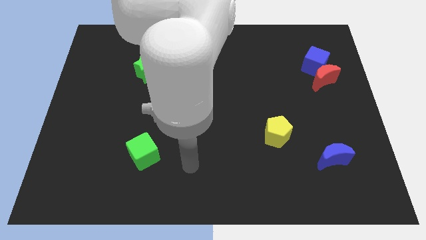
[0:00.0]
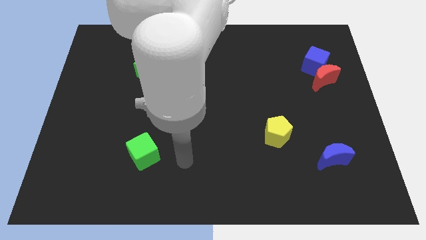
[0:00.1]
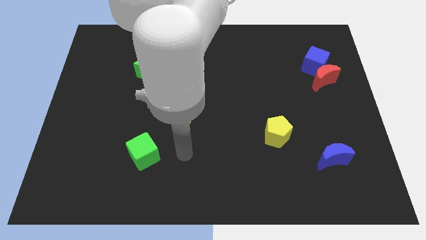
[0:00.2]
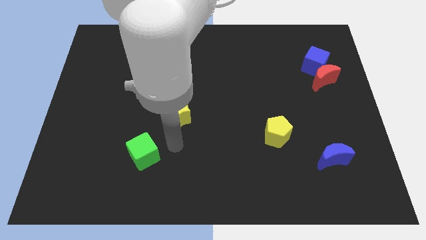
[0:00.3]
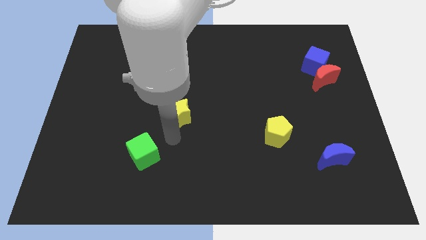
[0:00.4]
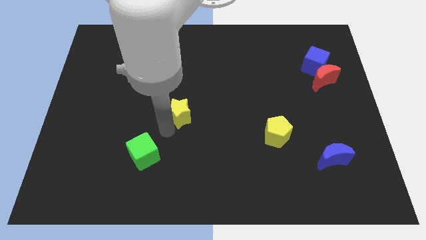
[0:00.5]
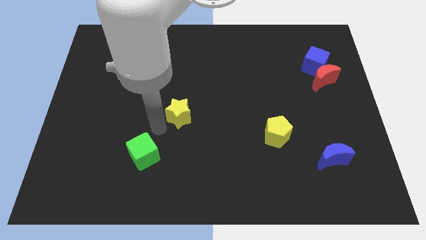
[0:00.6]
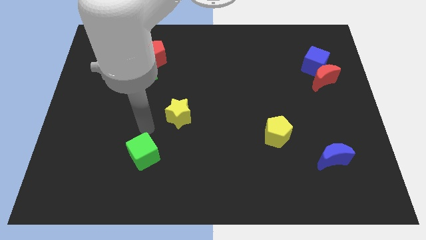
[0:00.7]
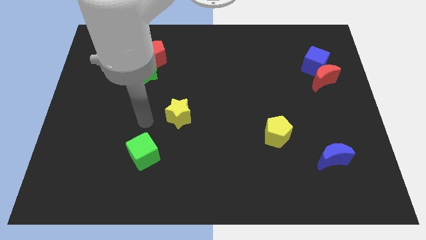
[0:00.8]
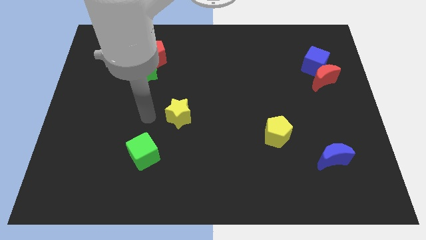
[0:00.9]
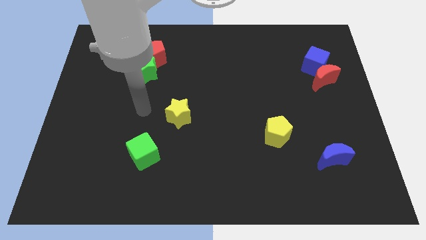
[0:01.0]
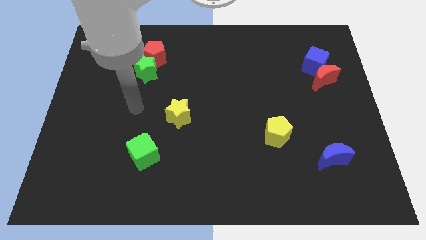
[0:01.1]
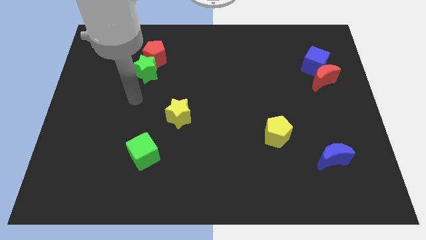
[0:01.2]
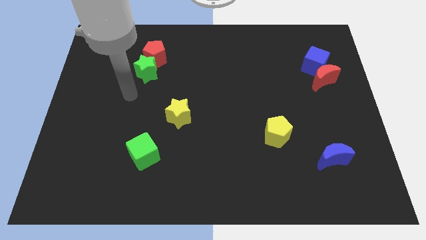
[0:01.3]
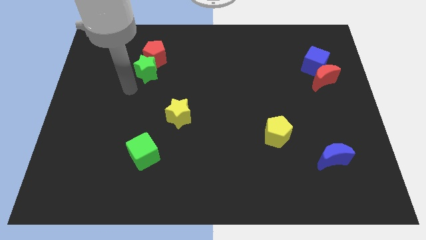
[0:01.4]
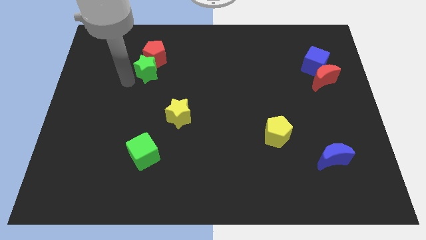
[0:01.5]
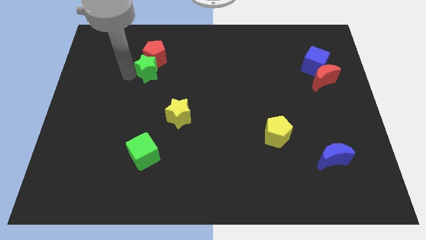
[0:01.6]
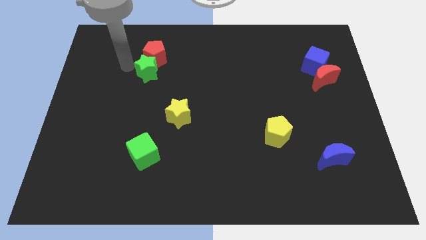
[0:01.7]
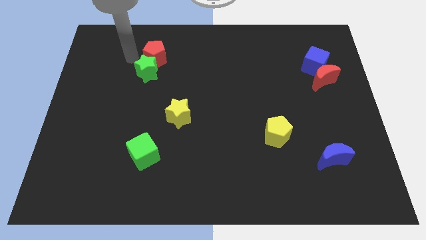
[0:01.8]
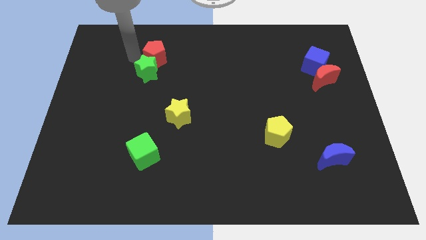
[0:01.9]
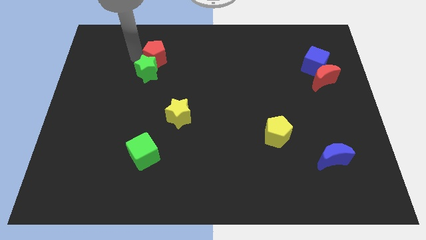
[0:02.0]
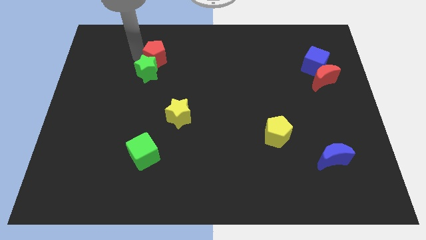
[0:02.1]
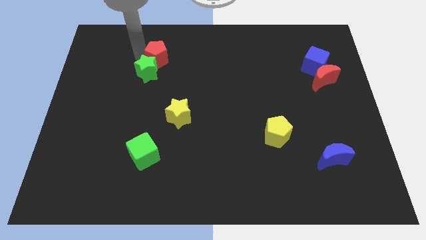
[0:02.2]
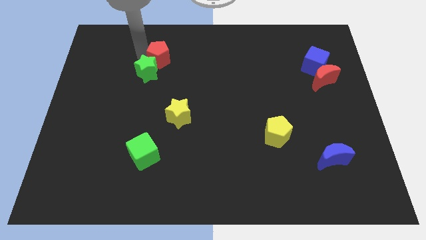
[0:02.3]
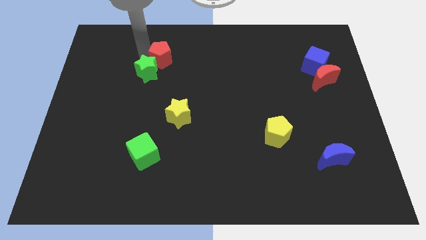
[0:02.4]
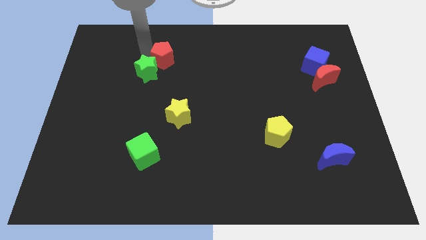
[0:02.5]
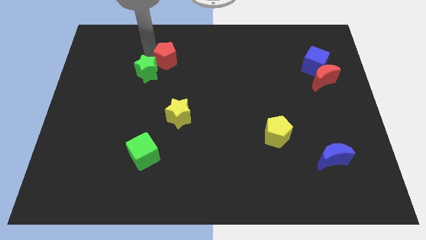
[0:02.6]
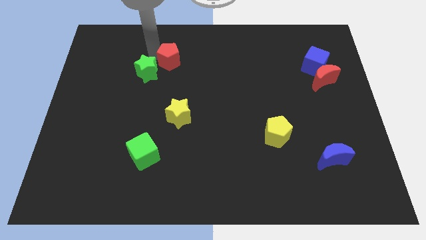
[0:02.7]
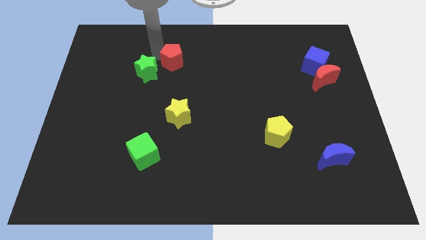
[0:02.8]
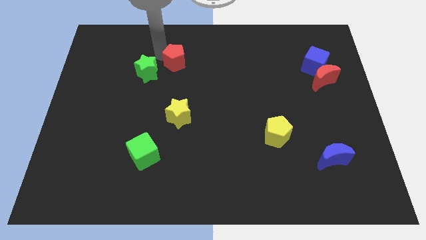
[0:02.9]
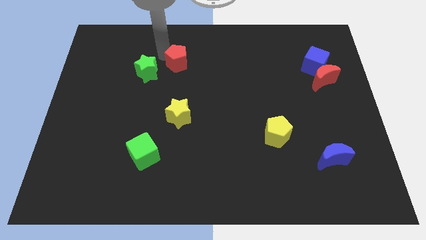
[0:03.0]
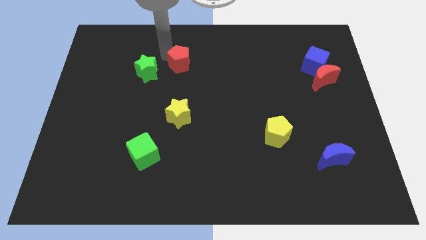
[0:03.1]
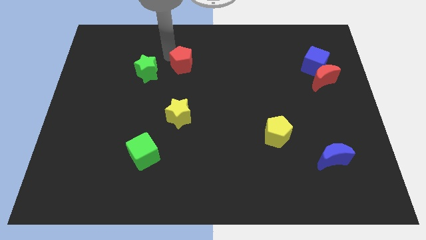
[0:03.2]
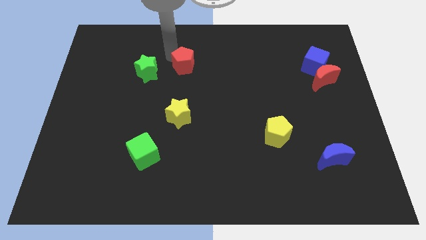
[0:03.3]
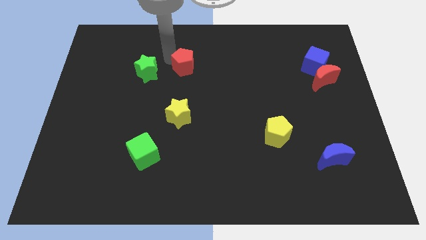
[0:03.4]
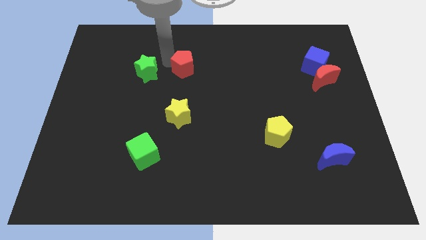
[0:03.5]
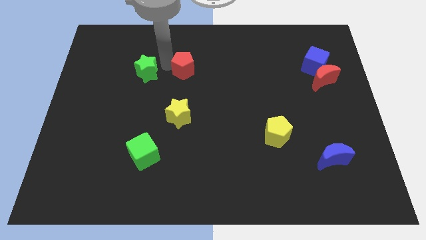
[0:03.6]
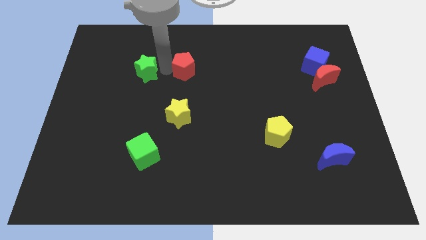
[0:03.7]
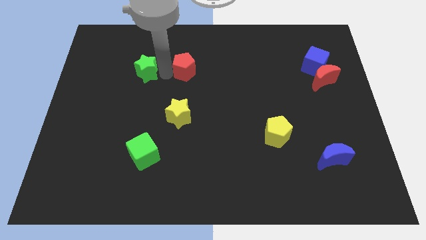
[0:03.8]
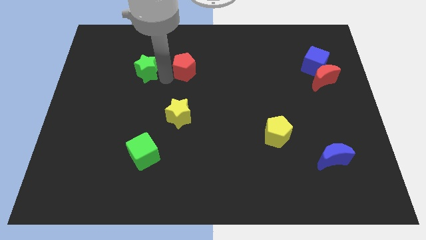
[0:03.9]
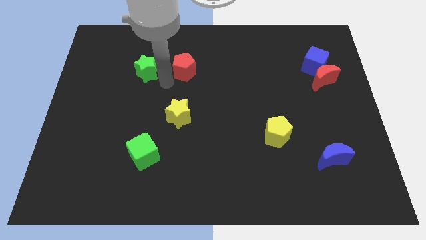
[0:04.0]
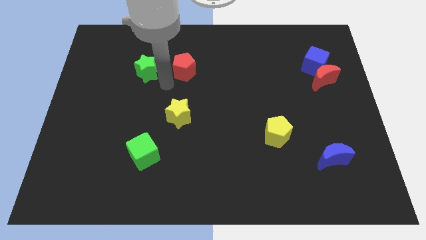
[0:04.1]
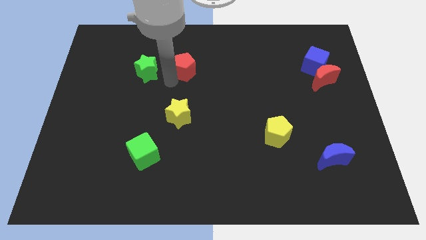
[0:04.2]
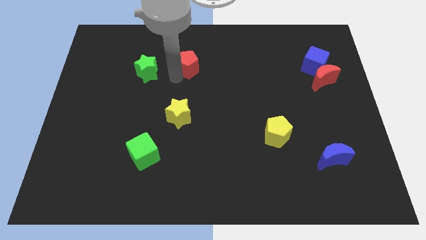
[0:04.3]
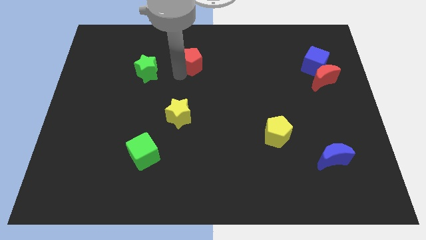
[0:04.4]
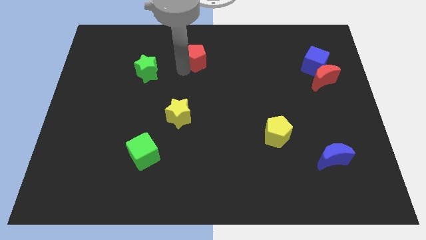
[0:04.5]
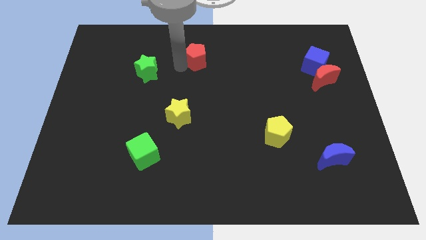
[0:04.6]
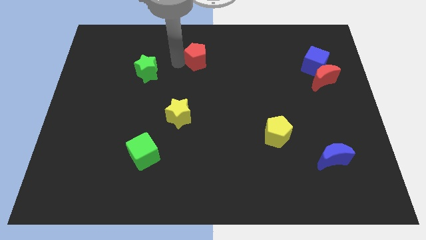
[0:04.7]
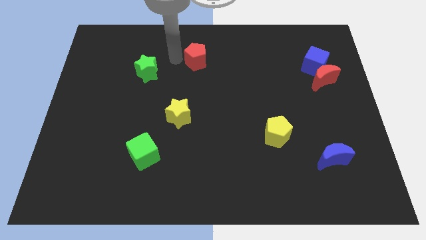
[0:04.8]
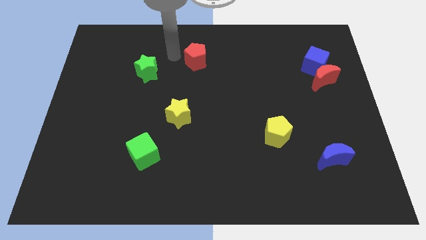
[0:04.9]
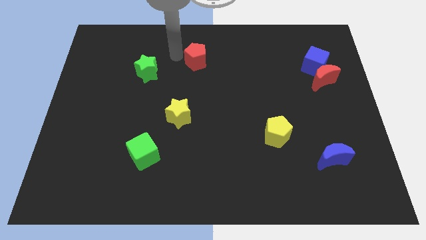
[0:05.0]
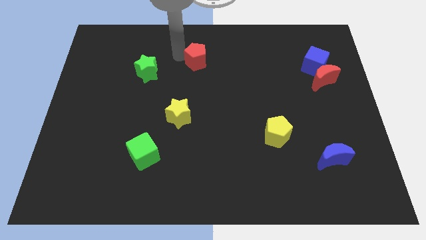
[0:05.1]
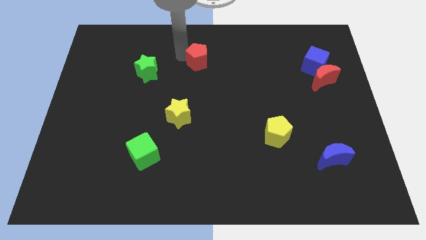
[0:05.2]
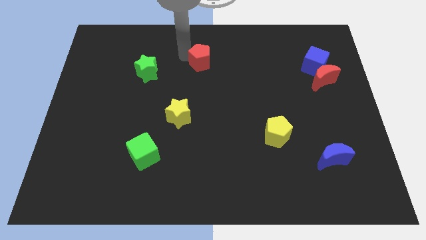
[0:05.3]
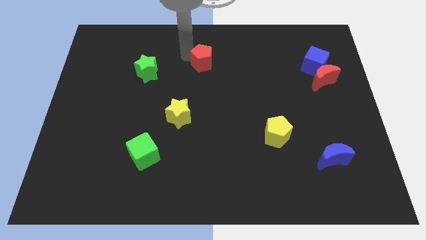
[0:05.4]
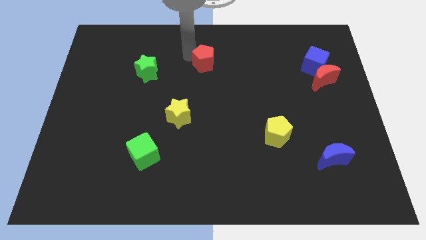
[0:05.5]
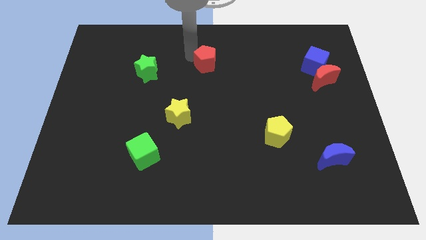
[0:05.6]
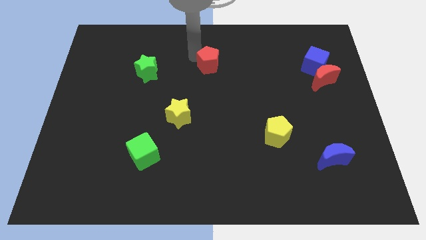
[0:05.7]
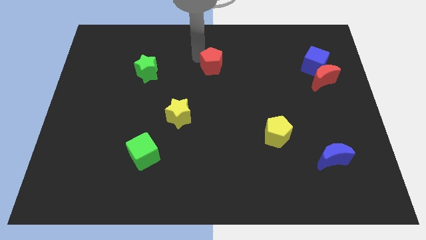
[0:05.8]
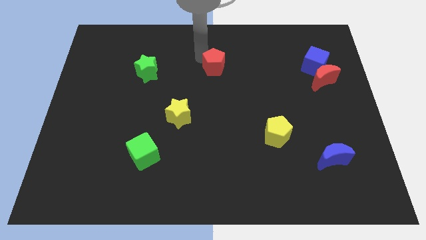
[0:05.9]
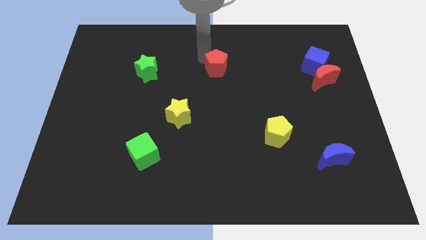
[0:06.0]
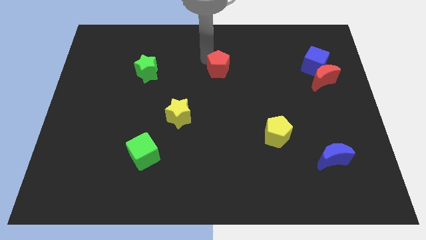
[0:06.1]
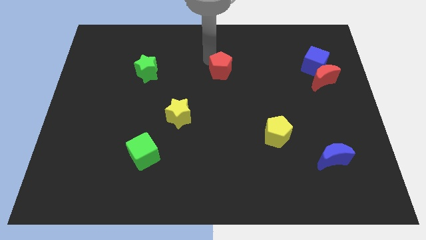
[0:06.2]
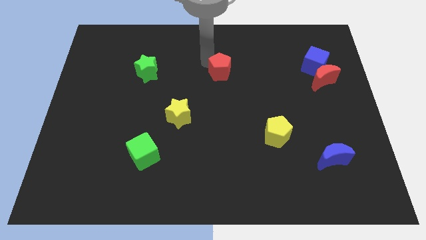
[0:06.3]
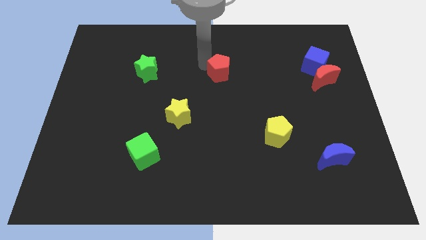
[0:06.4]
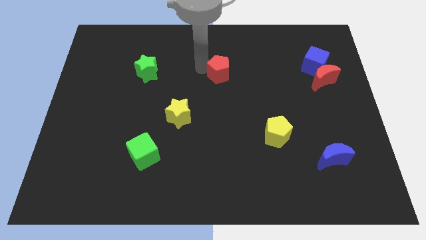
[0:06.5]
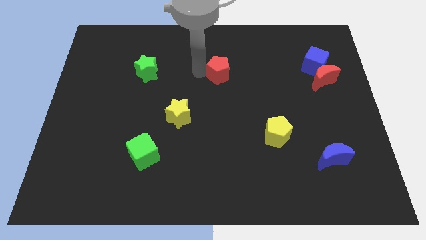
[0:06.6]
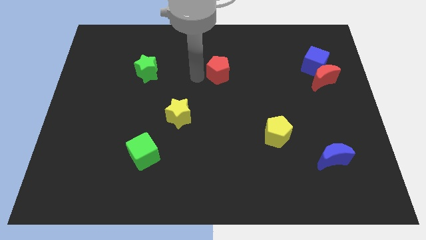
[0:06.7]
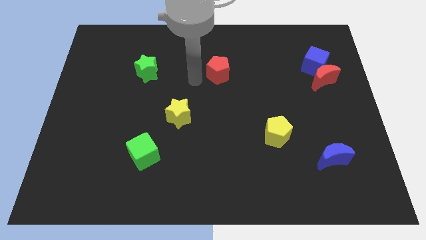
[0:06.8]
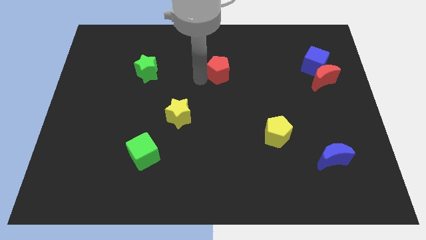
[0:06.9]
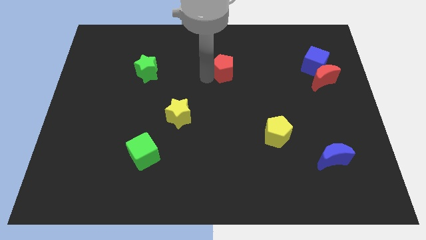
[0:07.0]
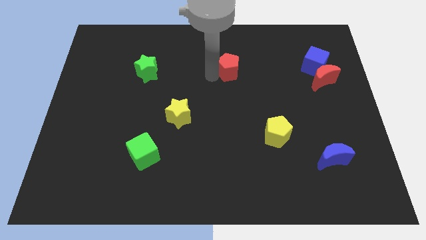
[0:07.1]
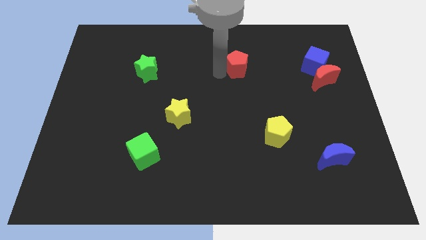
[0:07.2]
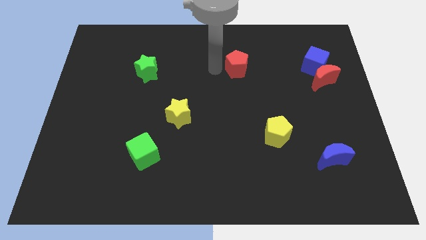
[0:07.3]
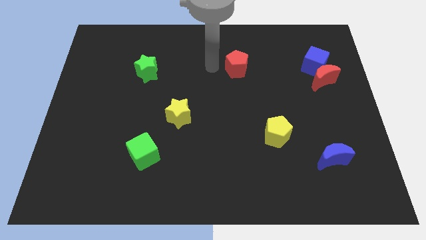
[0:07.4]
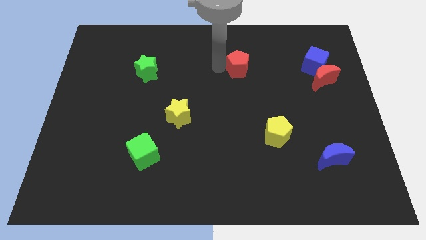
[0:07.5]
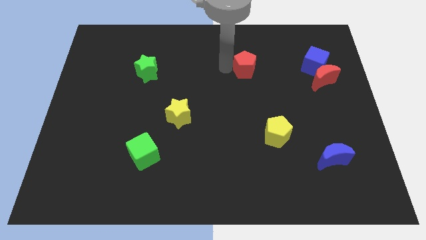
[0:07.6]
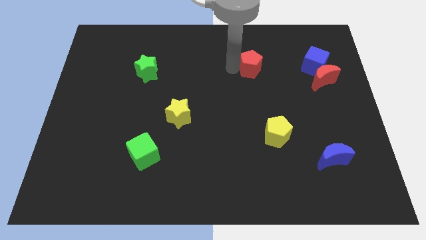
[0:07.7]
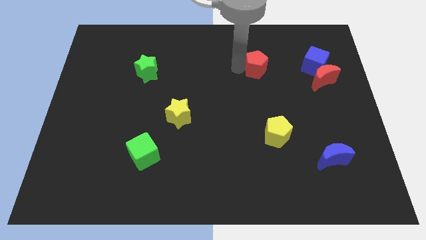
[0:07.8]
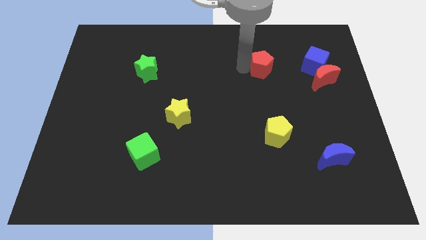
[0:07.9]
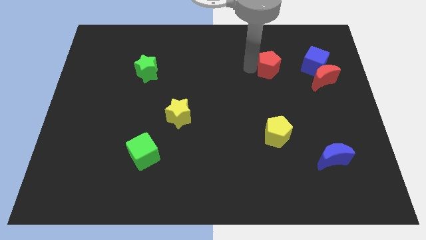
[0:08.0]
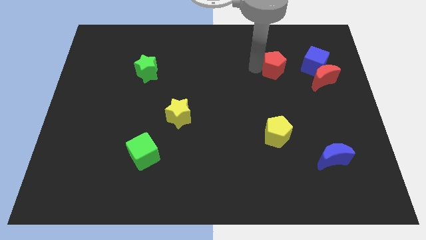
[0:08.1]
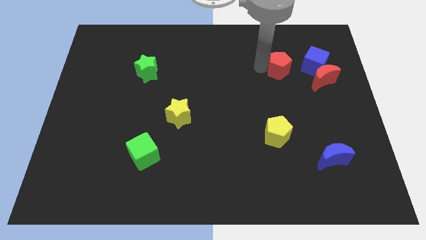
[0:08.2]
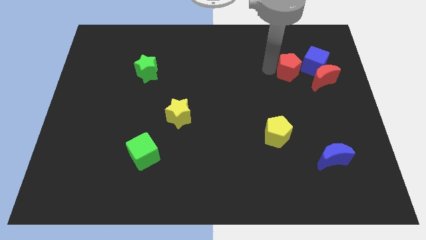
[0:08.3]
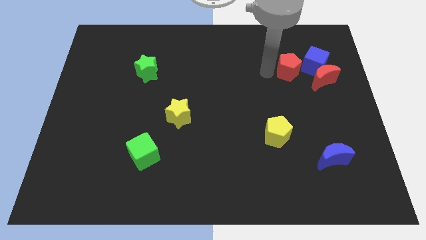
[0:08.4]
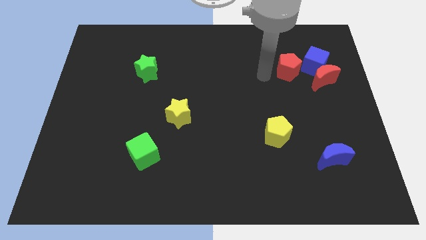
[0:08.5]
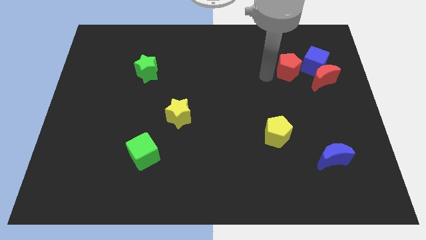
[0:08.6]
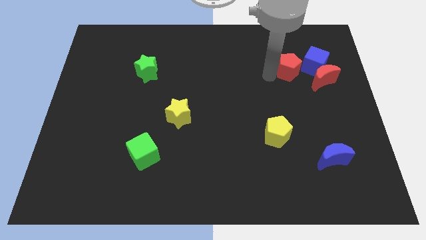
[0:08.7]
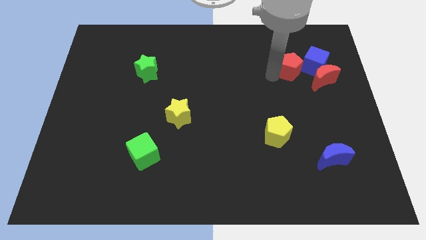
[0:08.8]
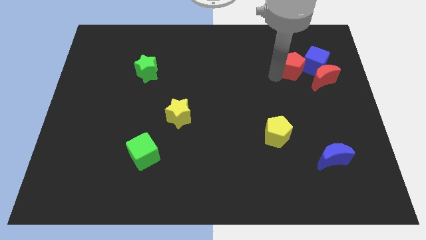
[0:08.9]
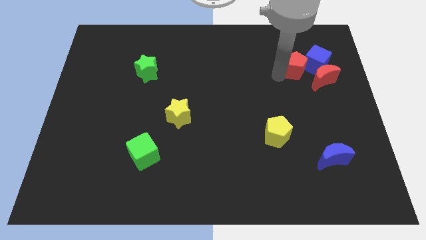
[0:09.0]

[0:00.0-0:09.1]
move the red pentagon towards the blue cube
